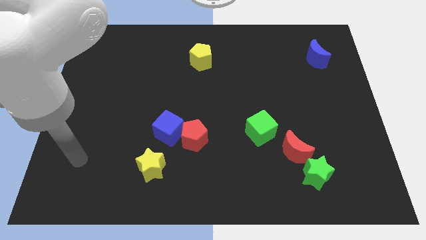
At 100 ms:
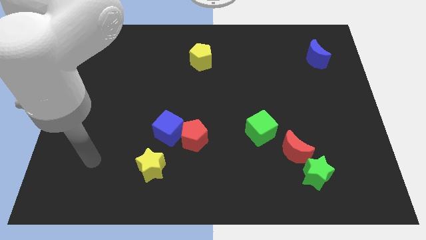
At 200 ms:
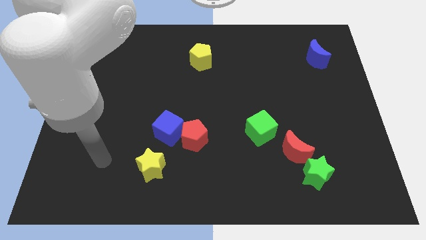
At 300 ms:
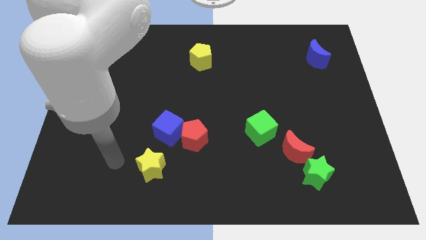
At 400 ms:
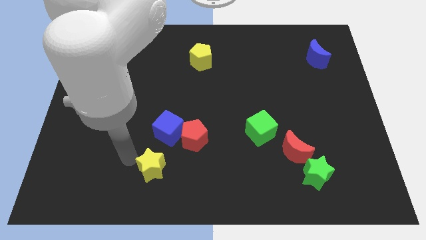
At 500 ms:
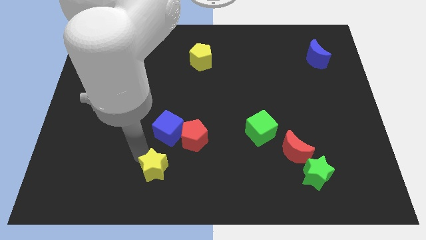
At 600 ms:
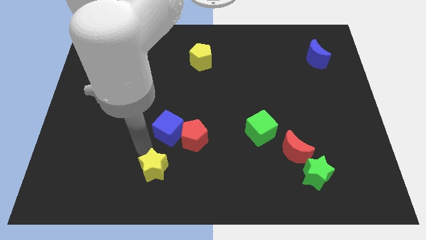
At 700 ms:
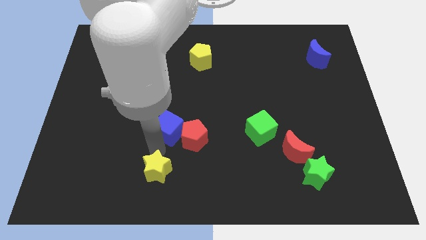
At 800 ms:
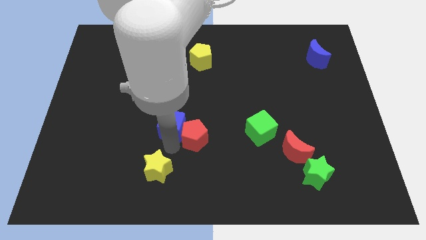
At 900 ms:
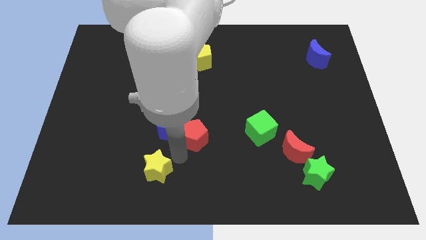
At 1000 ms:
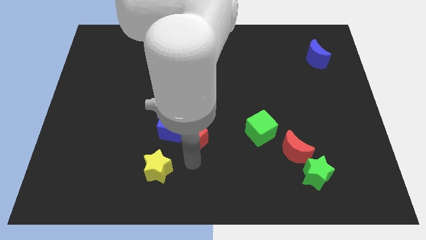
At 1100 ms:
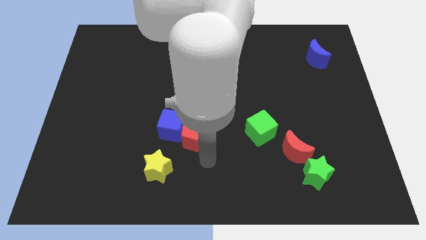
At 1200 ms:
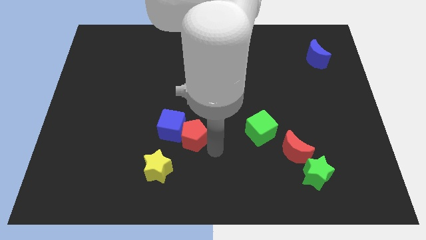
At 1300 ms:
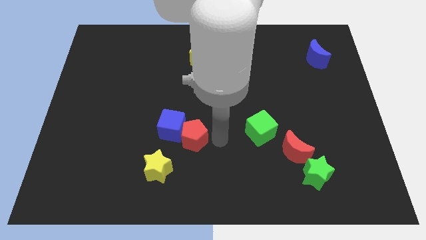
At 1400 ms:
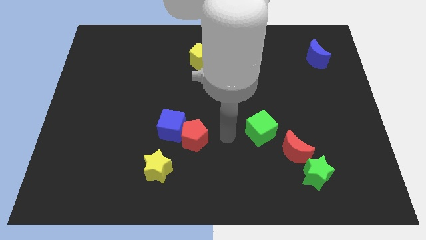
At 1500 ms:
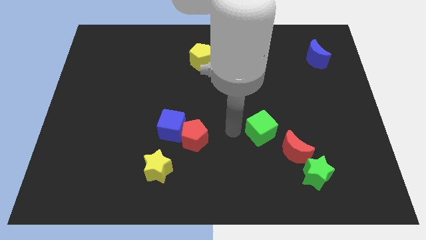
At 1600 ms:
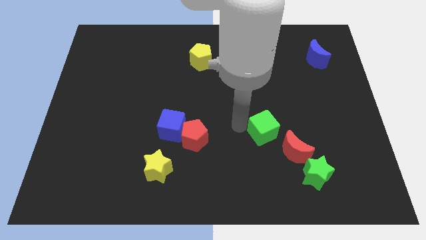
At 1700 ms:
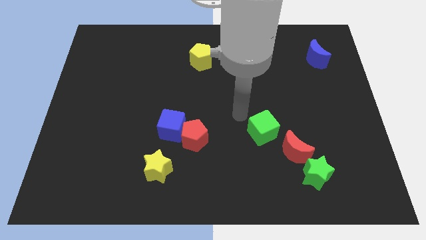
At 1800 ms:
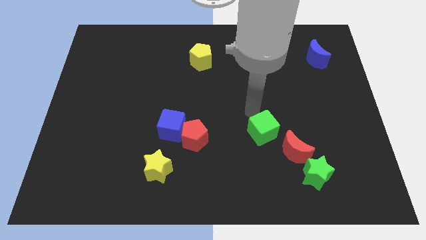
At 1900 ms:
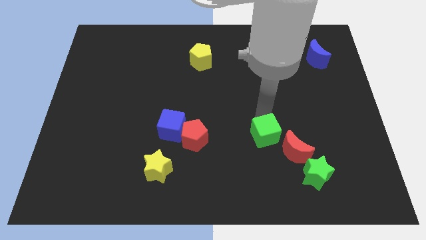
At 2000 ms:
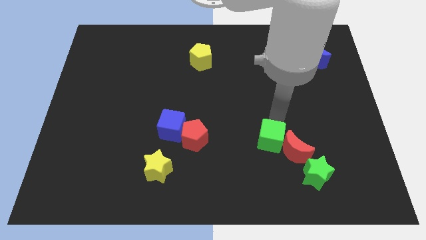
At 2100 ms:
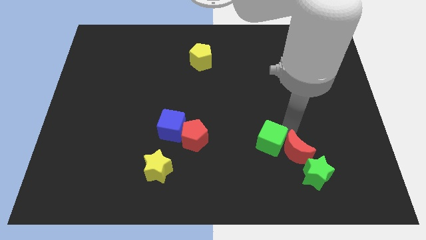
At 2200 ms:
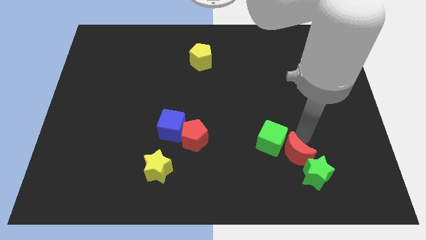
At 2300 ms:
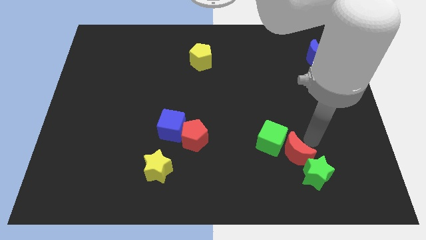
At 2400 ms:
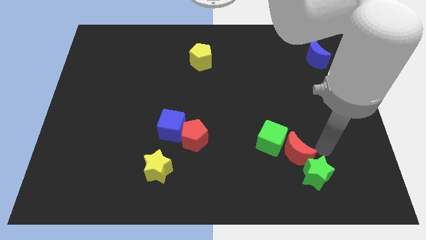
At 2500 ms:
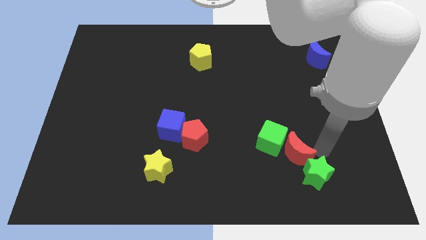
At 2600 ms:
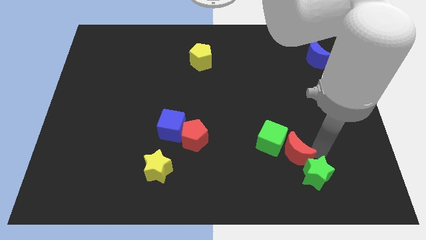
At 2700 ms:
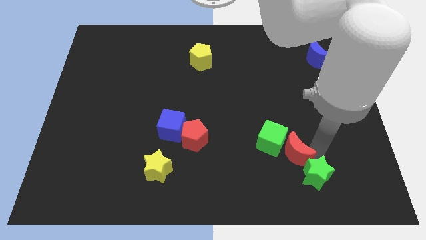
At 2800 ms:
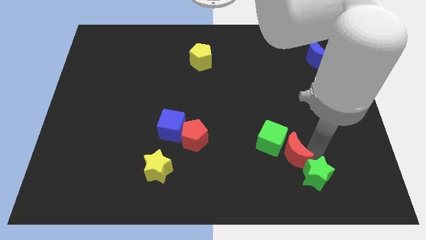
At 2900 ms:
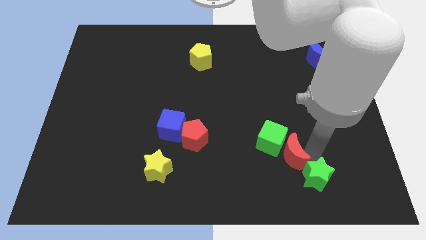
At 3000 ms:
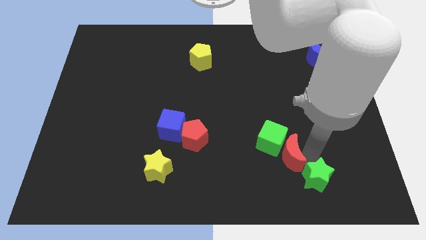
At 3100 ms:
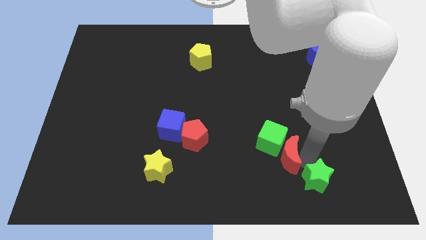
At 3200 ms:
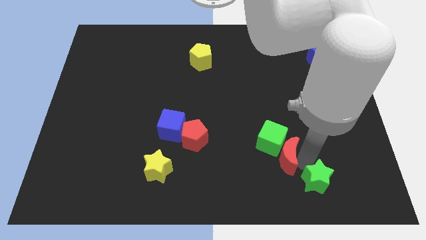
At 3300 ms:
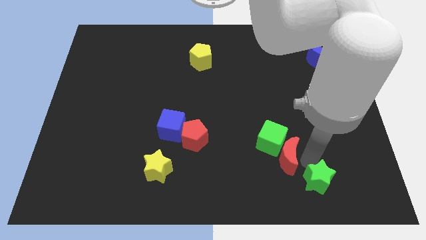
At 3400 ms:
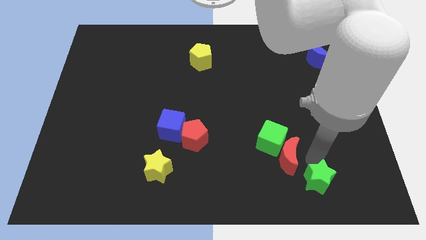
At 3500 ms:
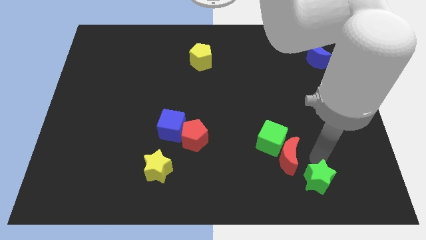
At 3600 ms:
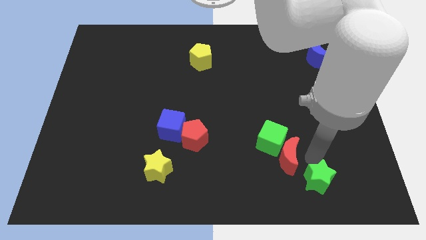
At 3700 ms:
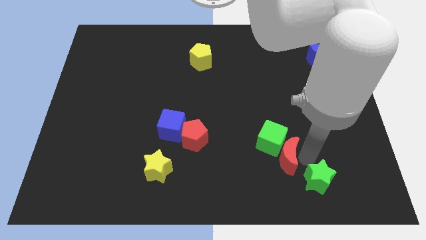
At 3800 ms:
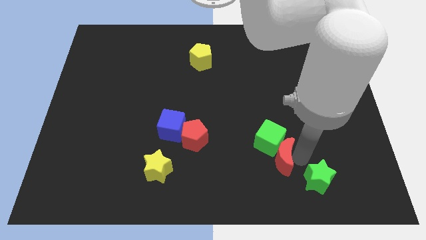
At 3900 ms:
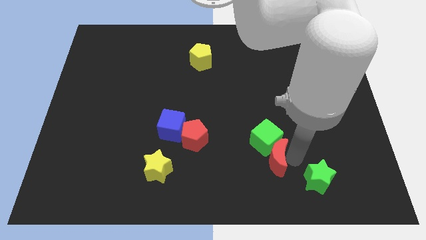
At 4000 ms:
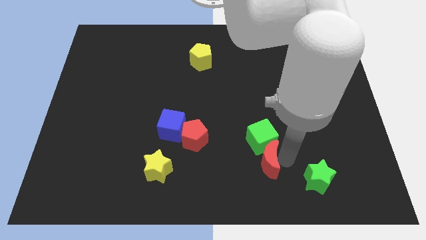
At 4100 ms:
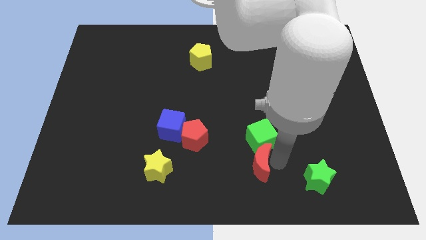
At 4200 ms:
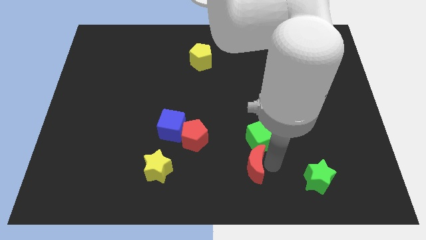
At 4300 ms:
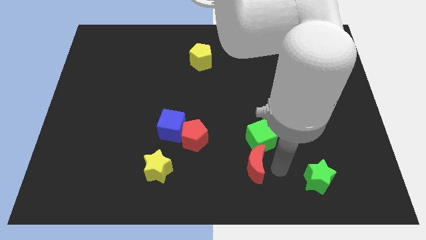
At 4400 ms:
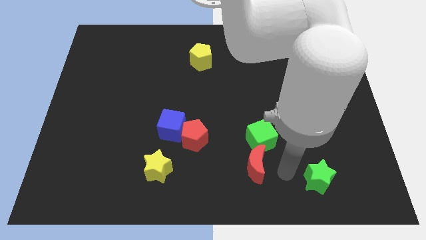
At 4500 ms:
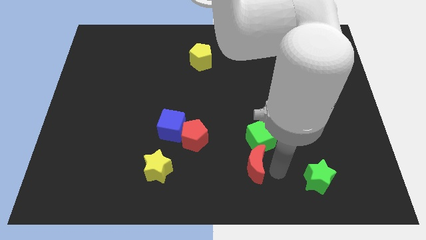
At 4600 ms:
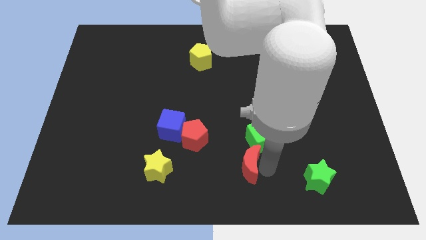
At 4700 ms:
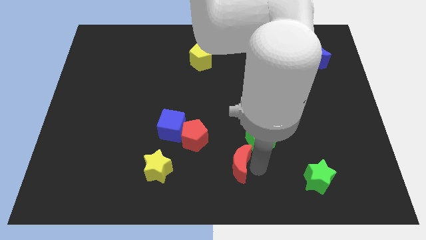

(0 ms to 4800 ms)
move the red moon diagonally down and to the right of the red pentagon

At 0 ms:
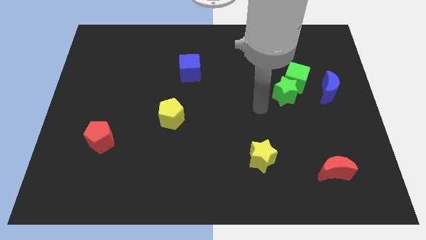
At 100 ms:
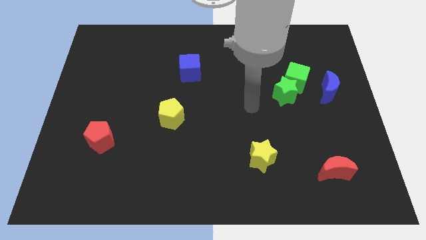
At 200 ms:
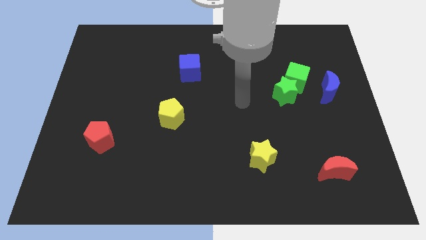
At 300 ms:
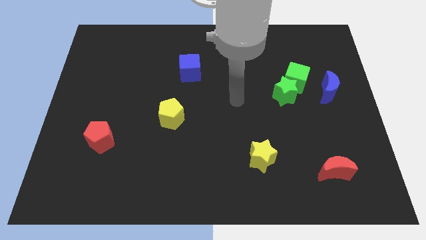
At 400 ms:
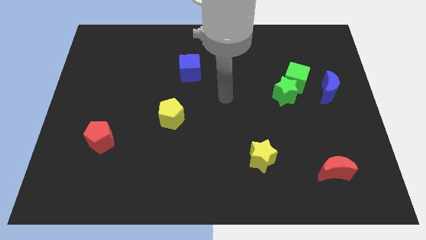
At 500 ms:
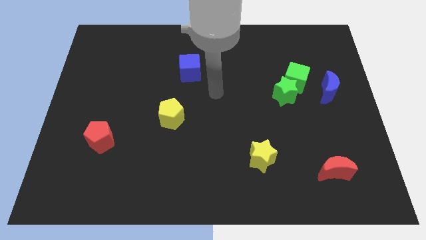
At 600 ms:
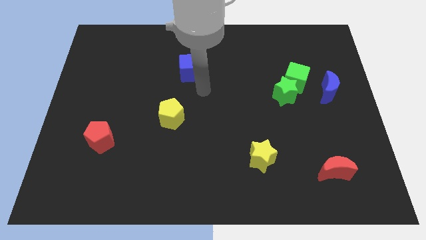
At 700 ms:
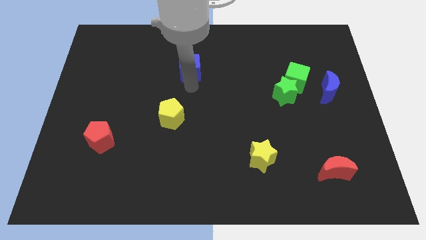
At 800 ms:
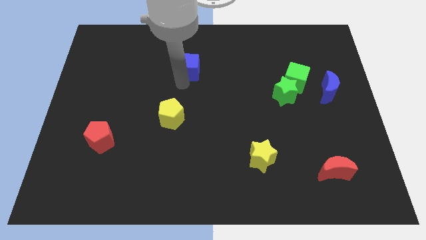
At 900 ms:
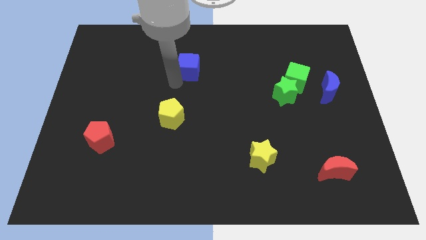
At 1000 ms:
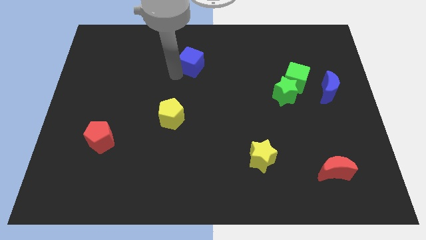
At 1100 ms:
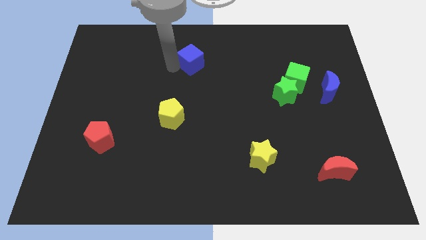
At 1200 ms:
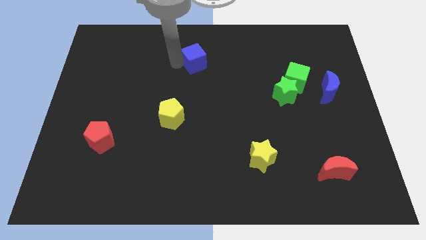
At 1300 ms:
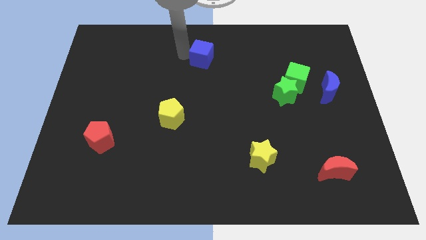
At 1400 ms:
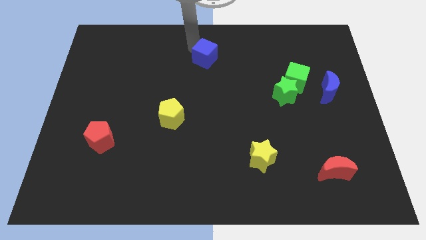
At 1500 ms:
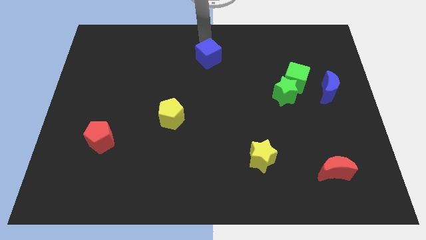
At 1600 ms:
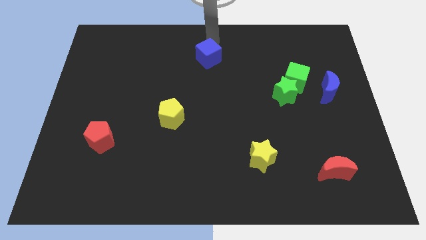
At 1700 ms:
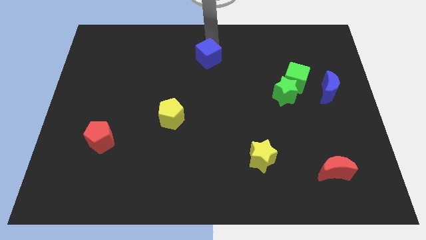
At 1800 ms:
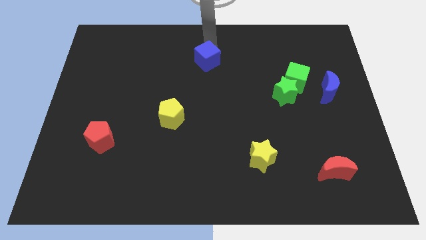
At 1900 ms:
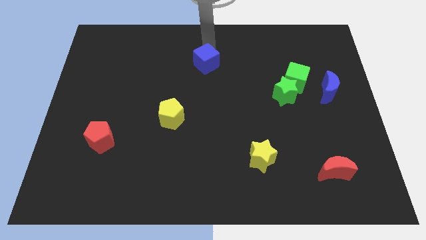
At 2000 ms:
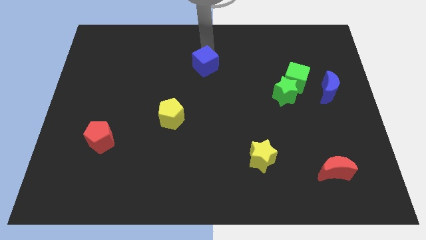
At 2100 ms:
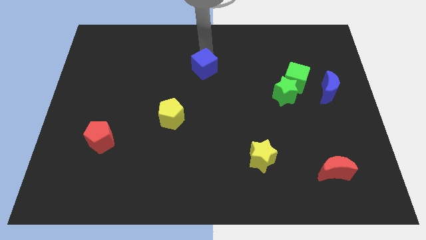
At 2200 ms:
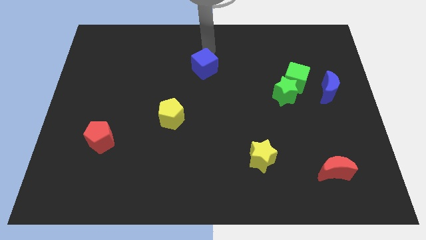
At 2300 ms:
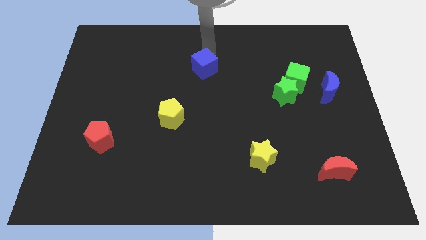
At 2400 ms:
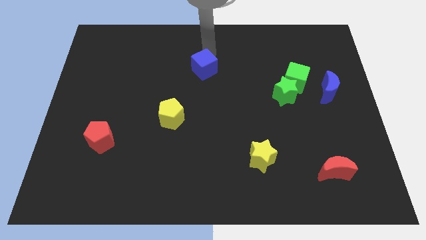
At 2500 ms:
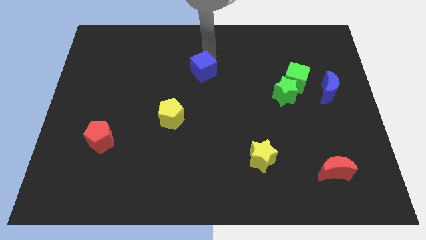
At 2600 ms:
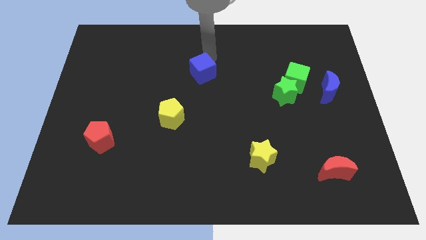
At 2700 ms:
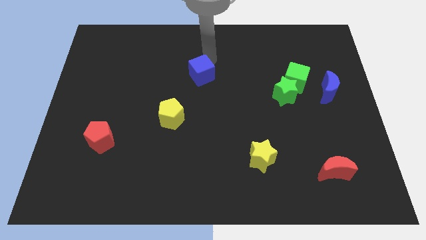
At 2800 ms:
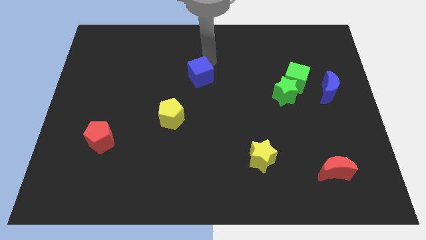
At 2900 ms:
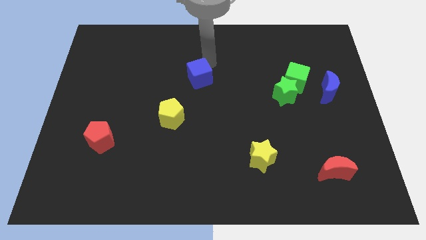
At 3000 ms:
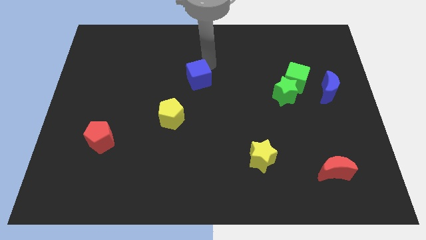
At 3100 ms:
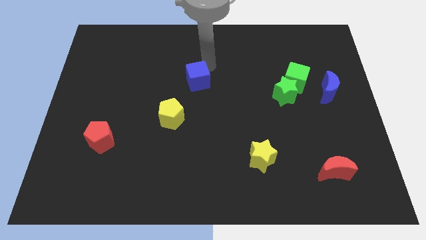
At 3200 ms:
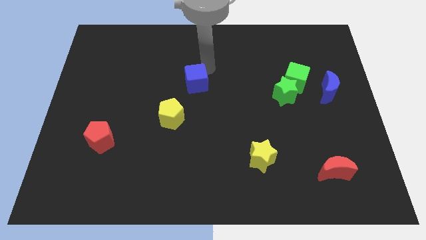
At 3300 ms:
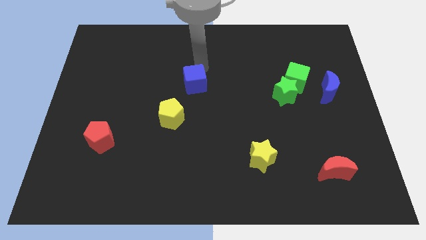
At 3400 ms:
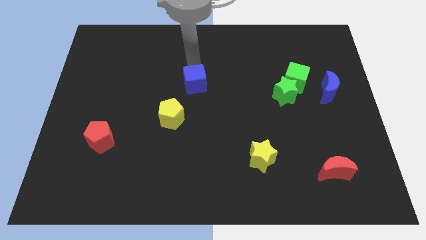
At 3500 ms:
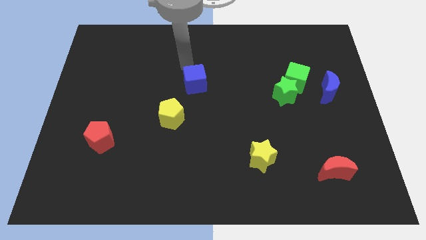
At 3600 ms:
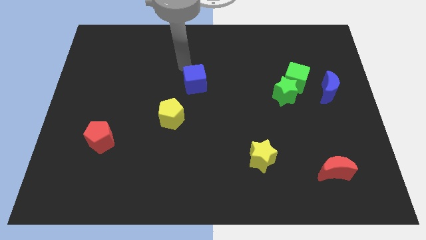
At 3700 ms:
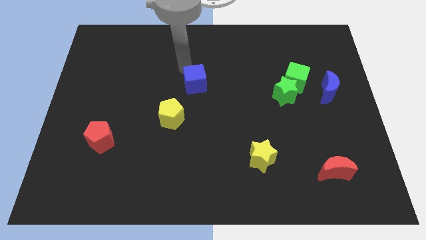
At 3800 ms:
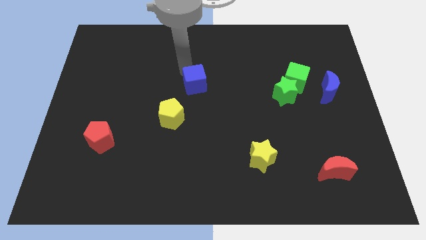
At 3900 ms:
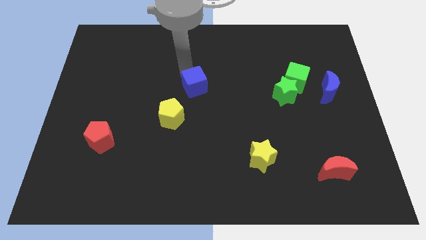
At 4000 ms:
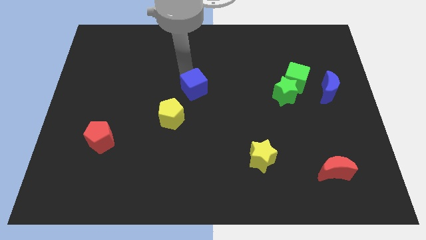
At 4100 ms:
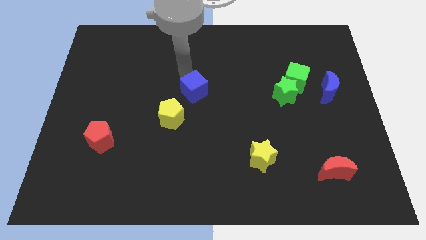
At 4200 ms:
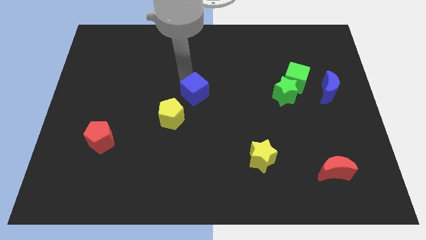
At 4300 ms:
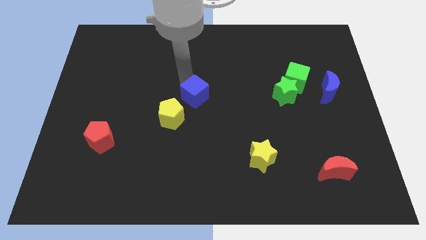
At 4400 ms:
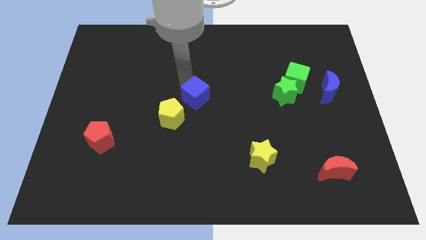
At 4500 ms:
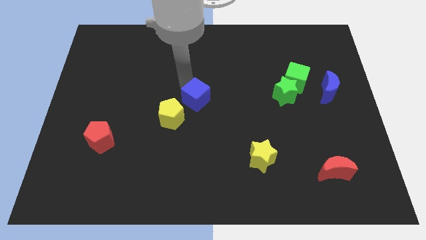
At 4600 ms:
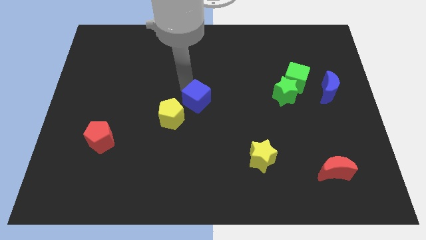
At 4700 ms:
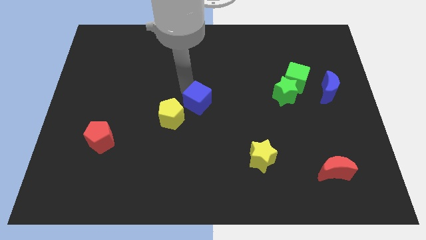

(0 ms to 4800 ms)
put the blue cube to the right side of the yellow pentagon
